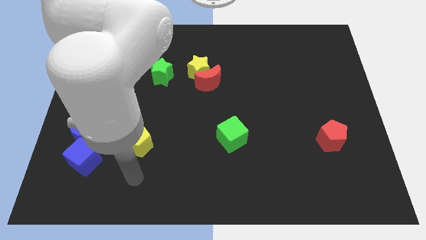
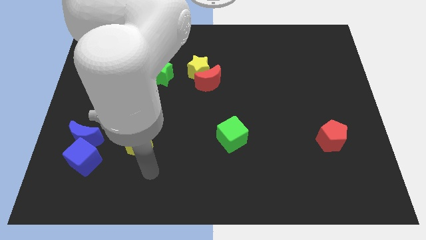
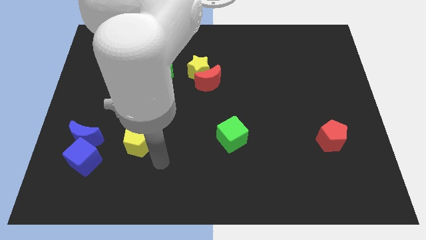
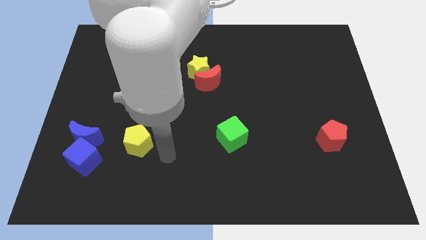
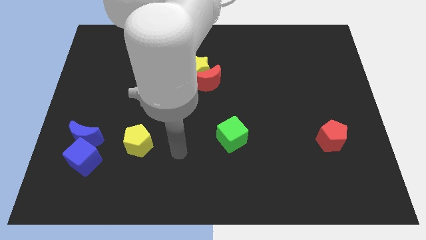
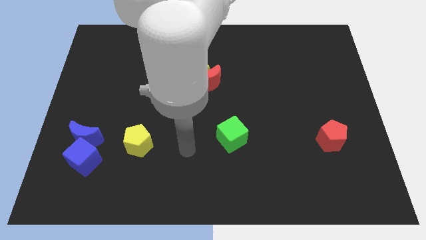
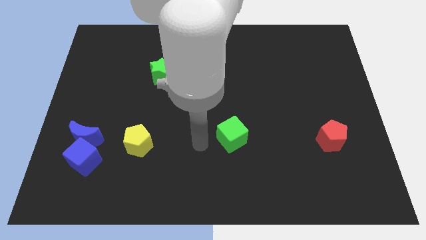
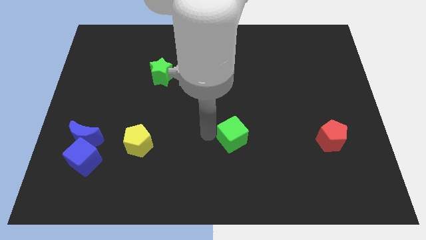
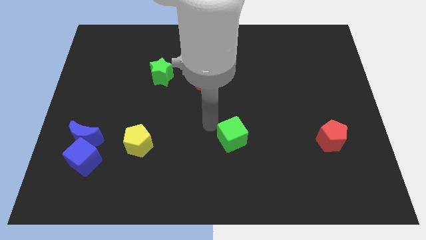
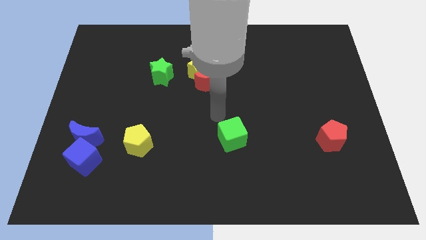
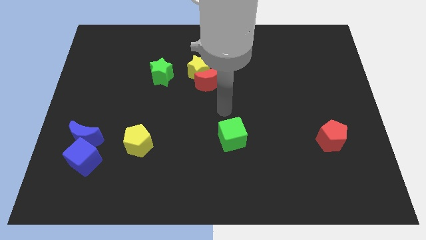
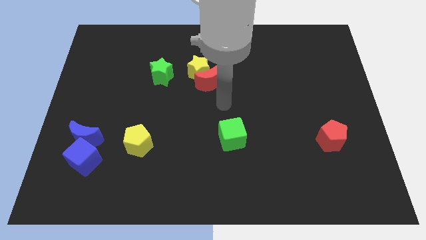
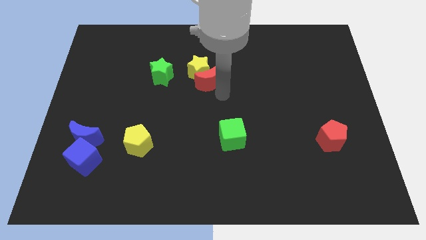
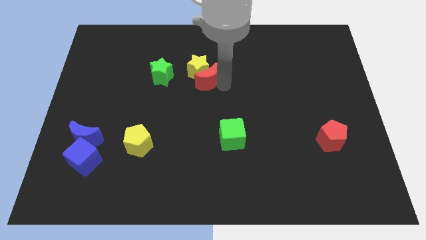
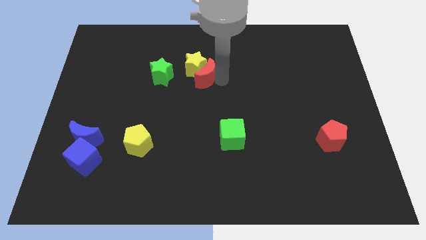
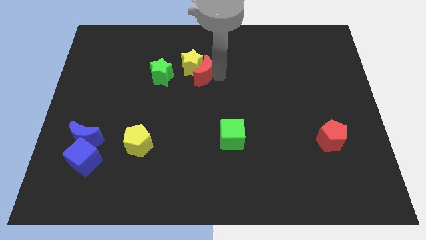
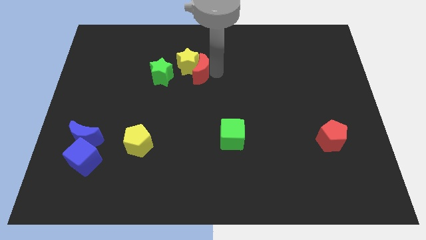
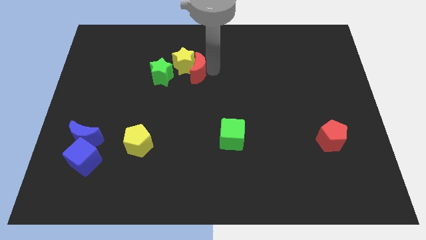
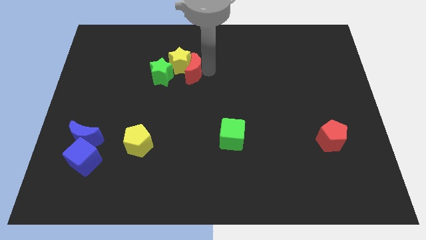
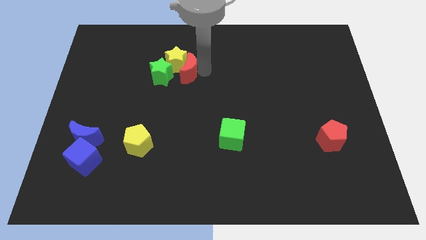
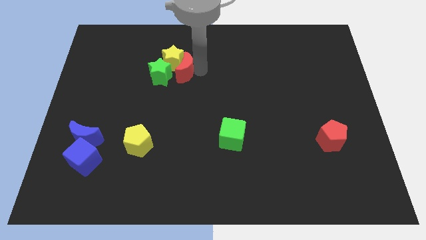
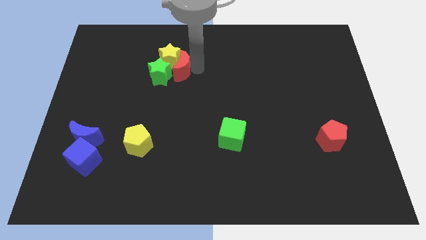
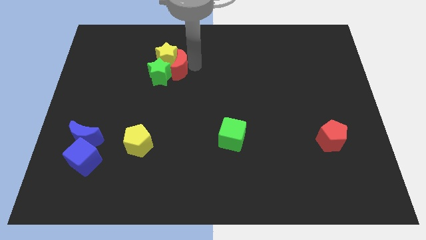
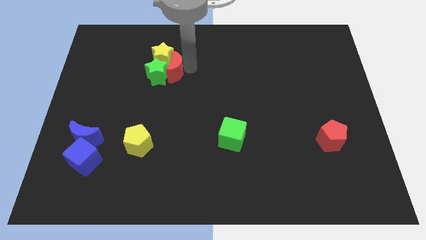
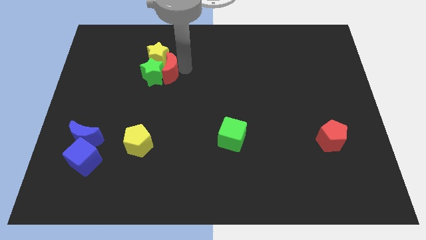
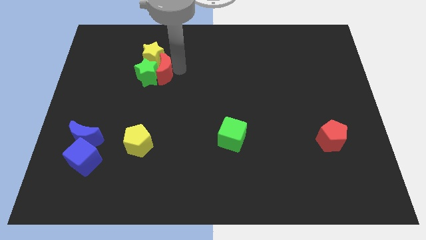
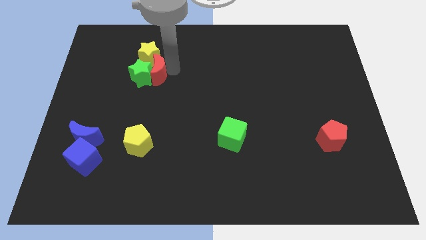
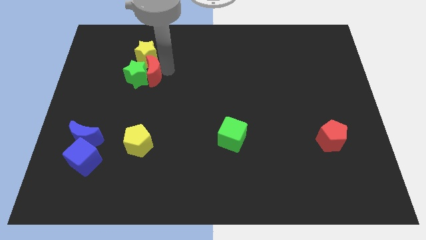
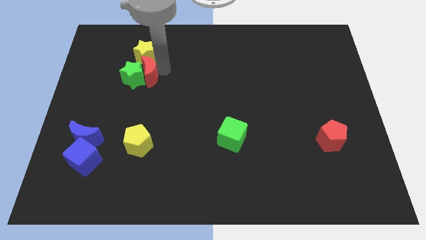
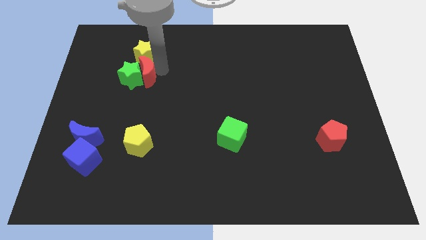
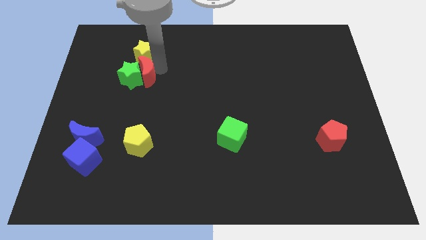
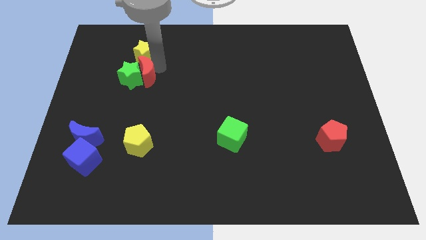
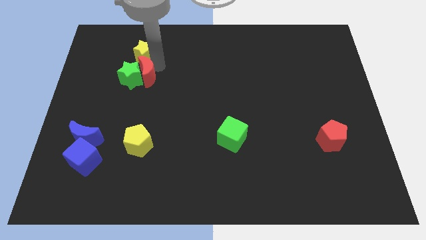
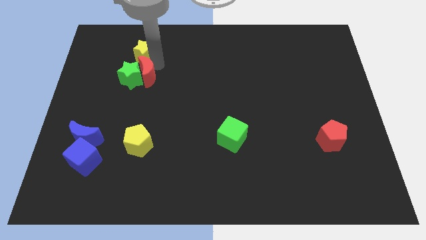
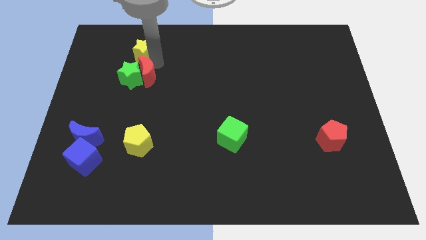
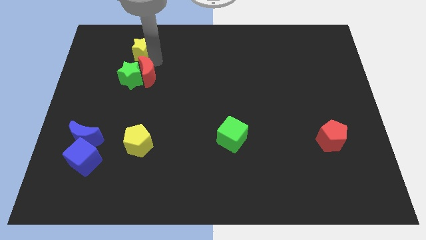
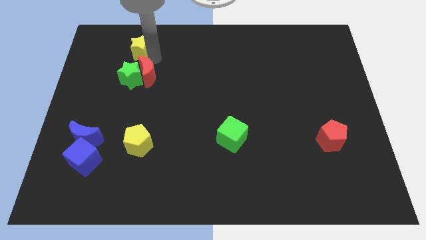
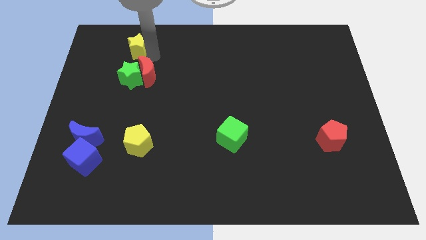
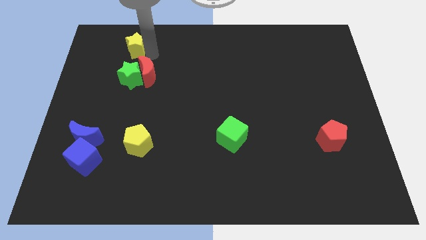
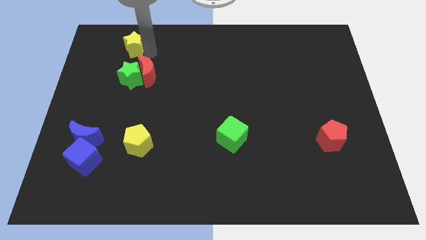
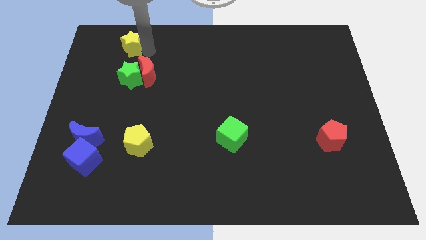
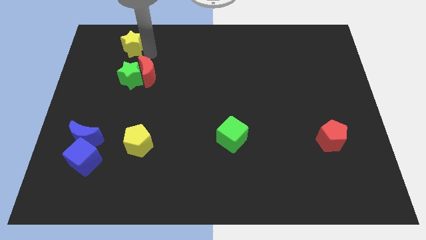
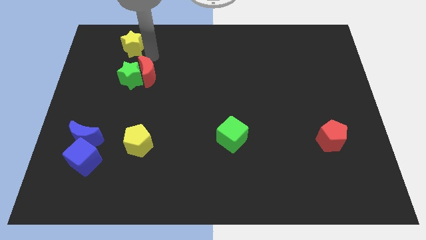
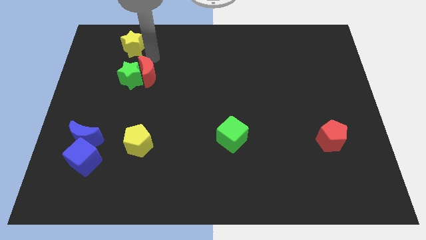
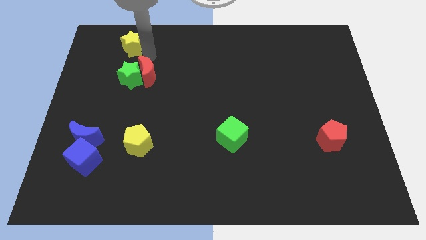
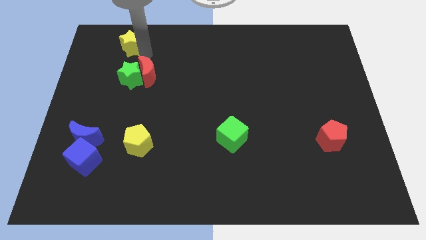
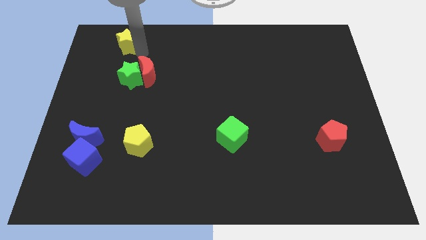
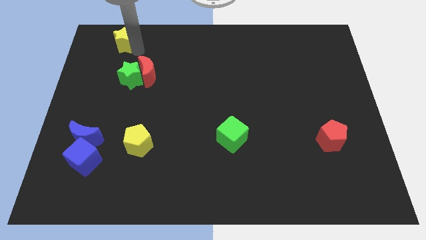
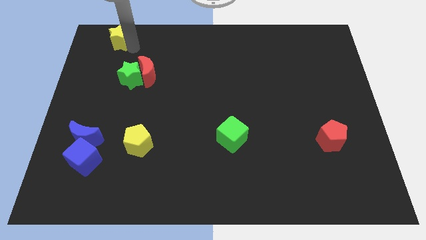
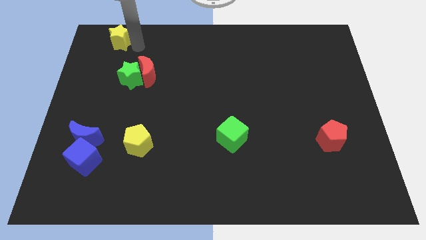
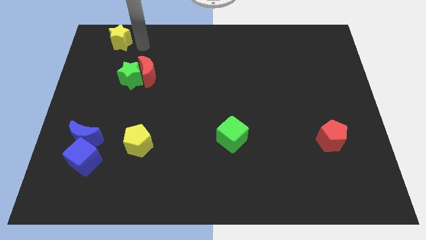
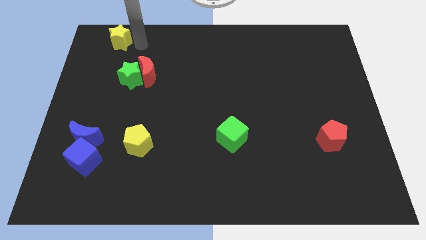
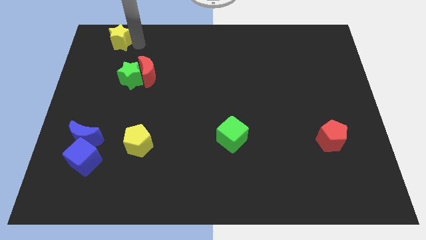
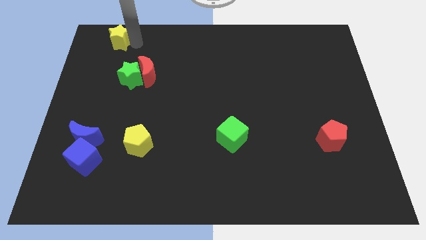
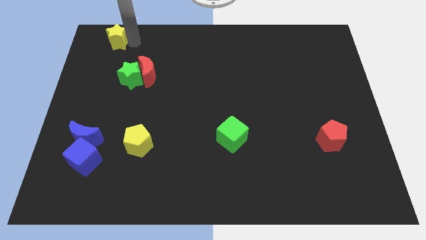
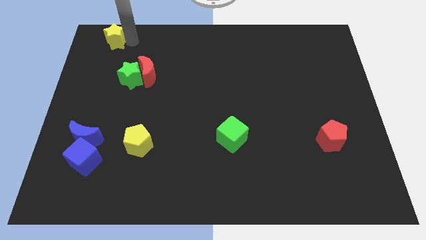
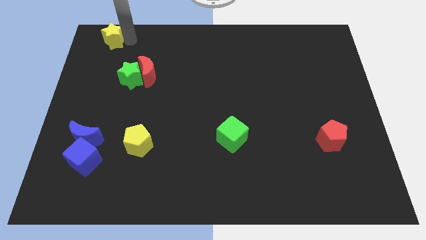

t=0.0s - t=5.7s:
move the yellow star to the top left of the board

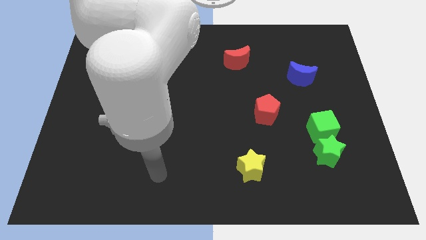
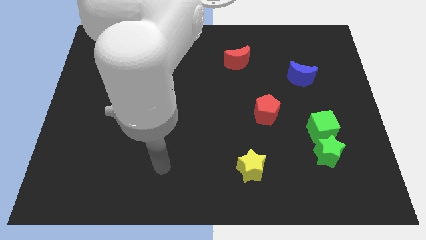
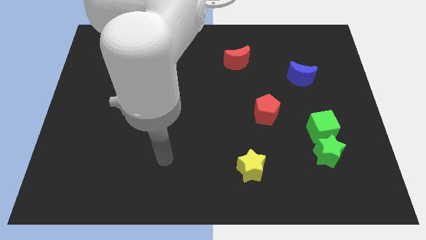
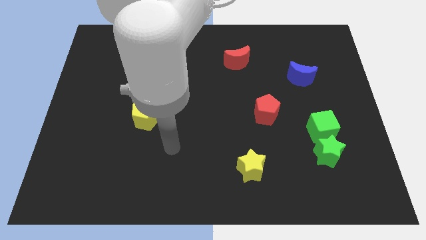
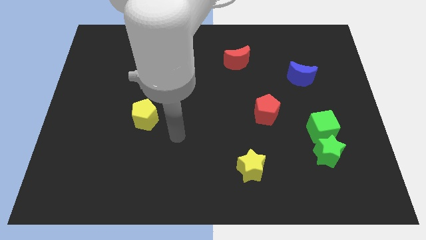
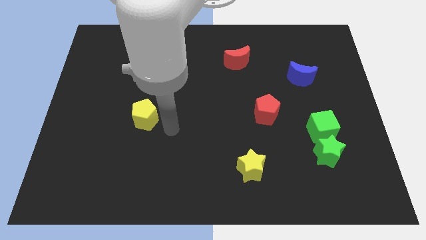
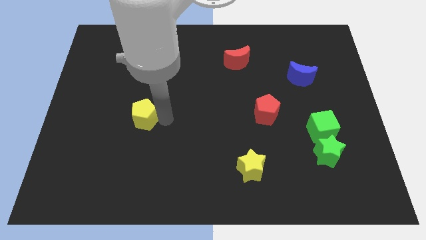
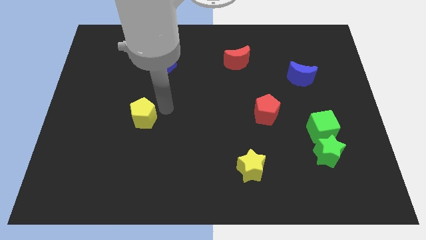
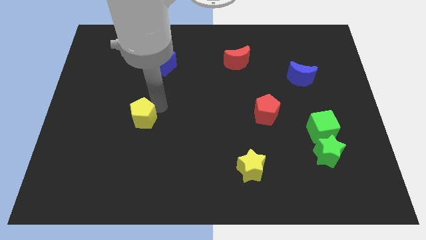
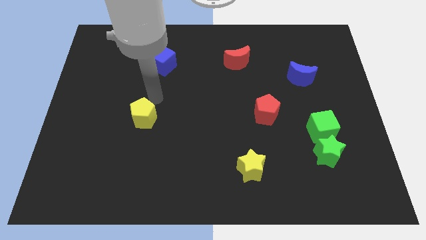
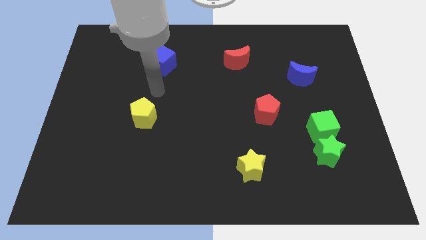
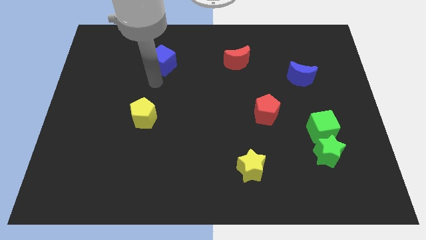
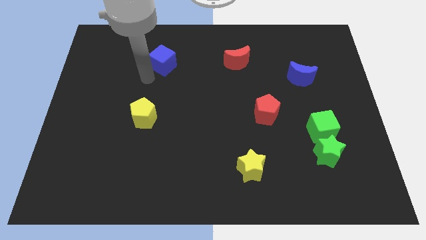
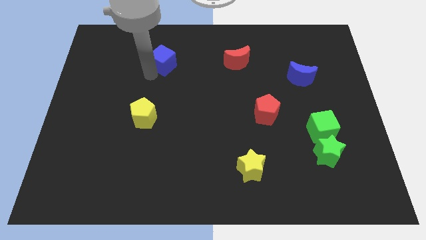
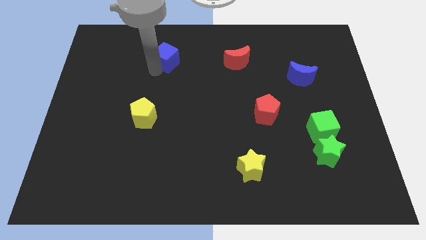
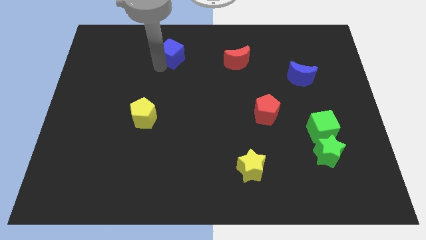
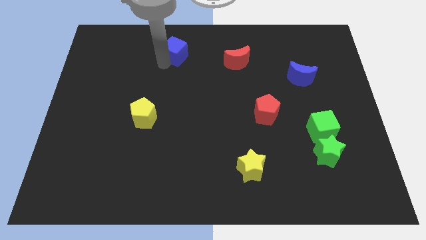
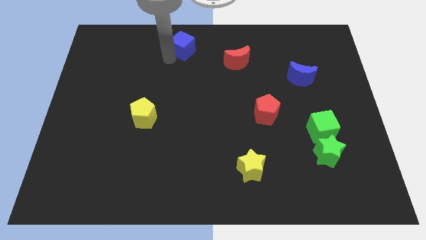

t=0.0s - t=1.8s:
put the blue cube to the top

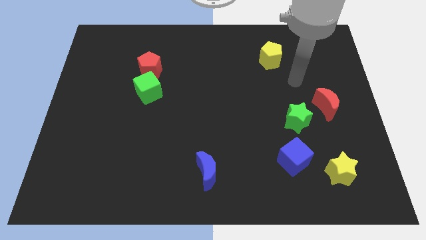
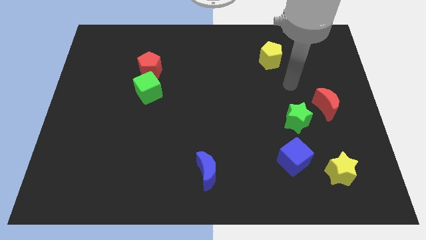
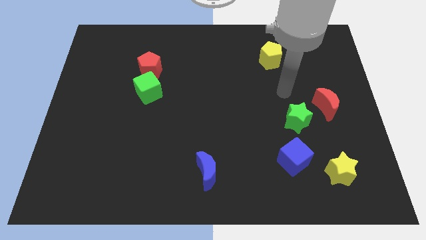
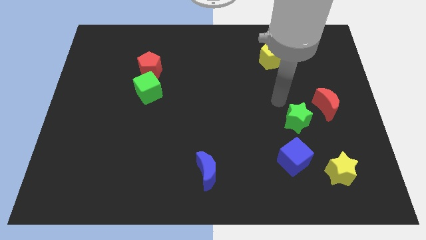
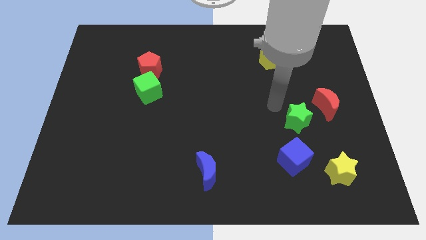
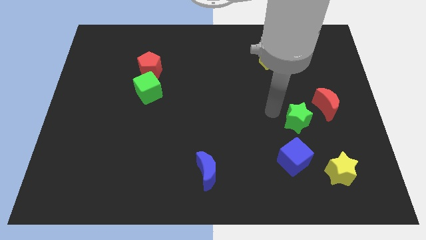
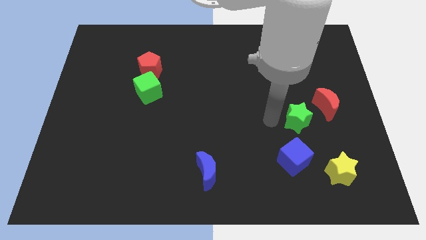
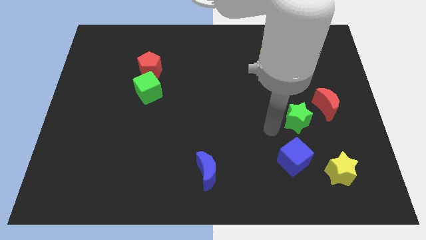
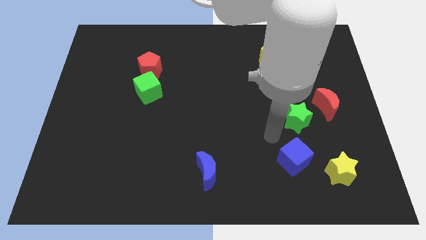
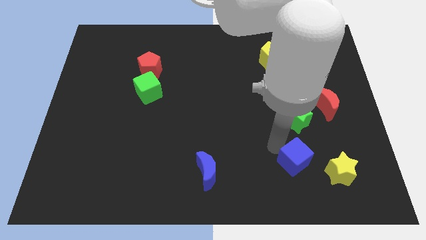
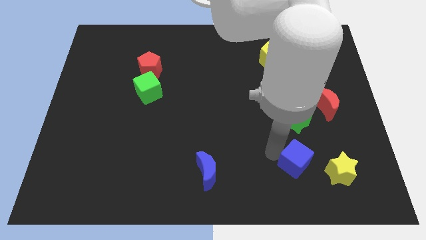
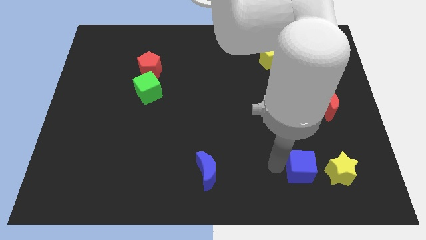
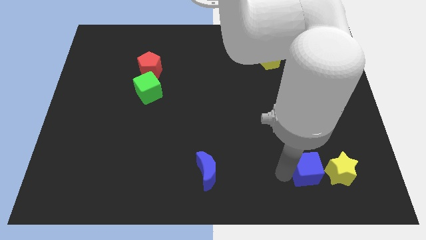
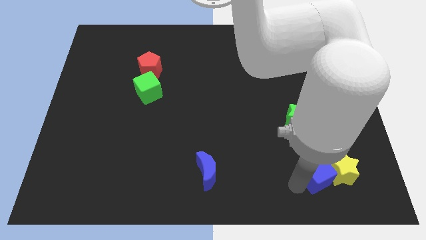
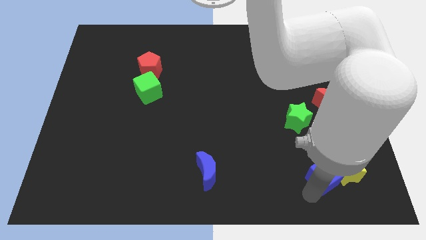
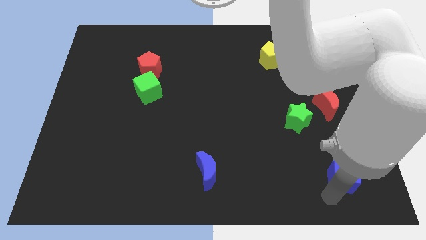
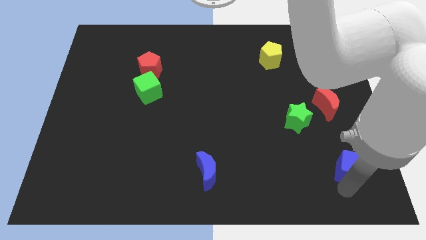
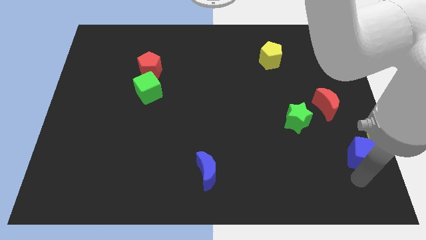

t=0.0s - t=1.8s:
put the yellow star to the center right
